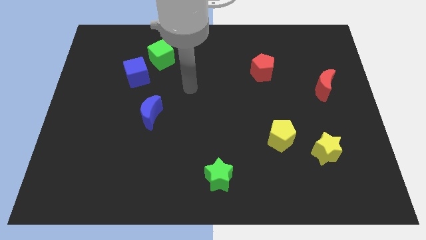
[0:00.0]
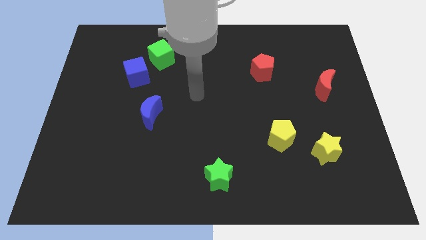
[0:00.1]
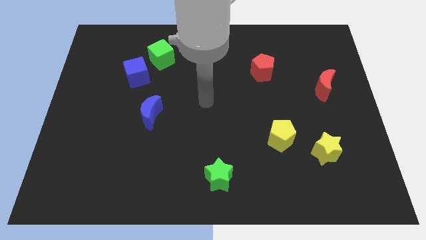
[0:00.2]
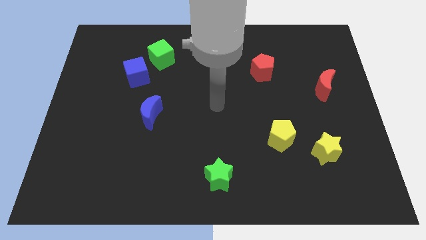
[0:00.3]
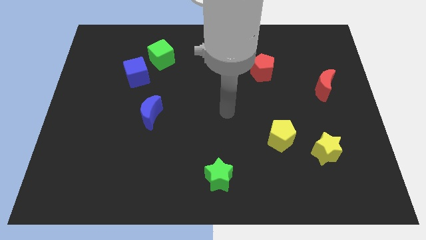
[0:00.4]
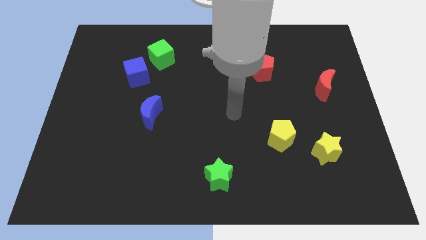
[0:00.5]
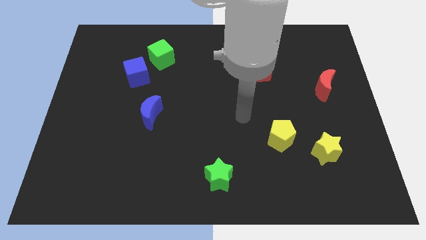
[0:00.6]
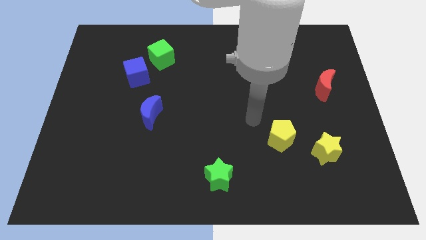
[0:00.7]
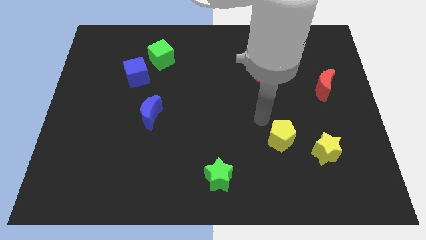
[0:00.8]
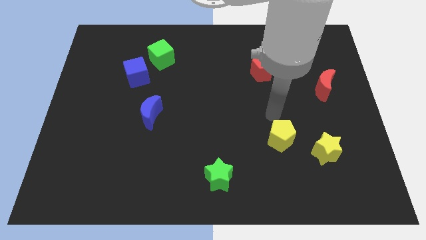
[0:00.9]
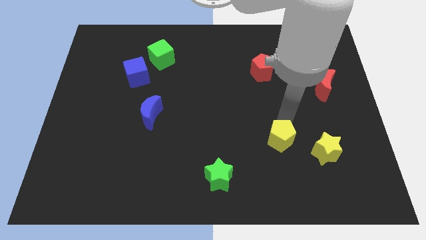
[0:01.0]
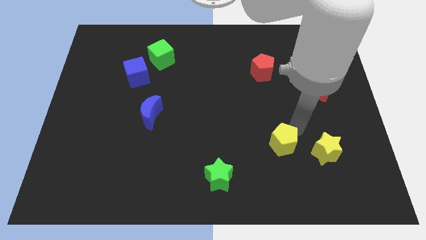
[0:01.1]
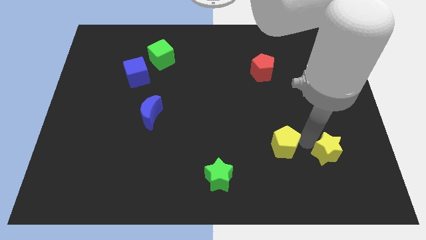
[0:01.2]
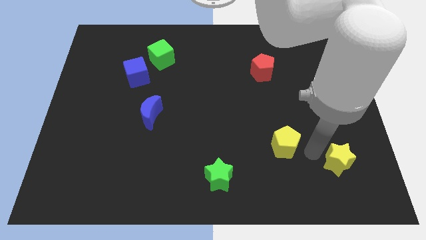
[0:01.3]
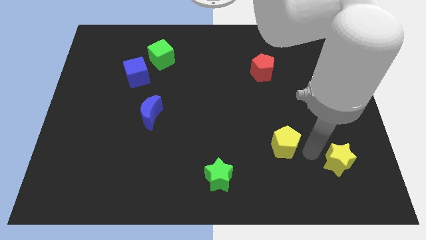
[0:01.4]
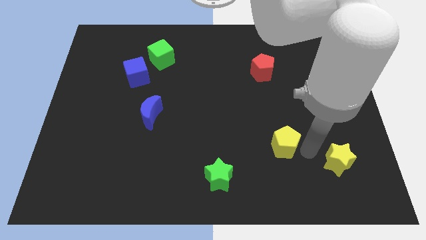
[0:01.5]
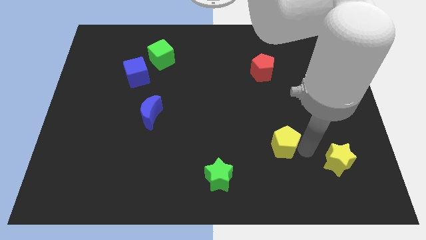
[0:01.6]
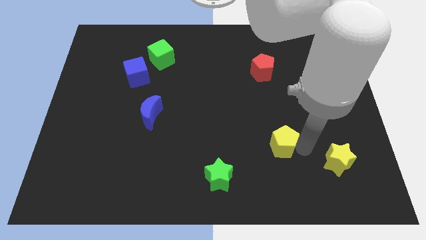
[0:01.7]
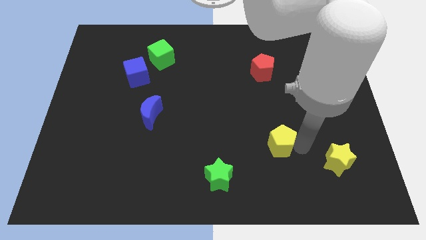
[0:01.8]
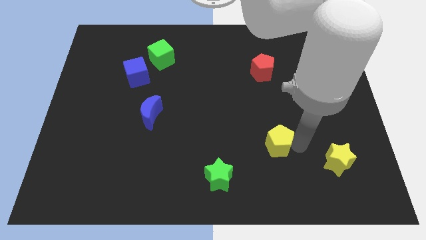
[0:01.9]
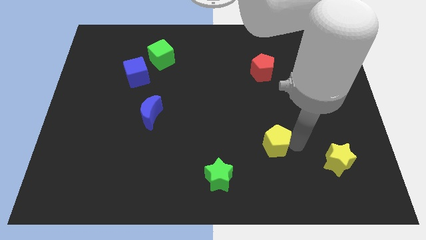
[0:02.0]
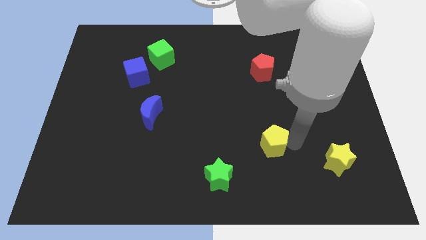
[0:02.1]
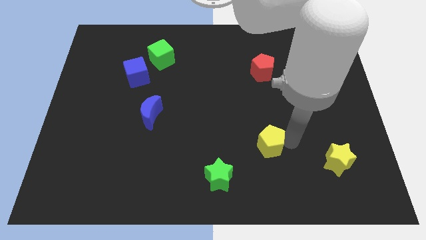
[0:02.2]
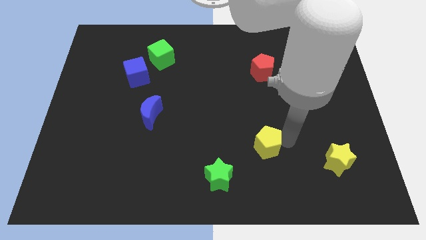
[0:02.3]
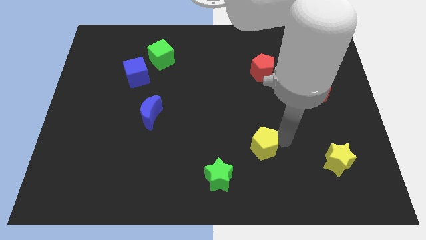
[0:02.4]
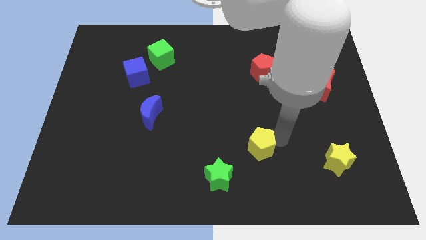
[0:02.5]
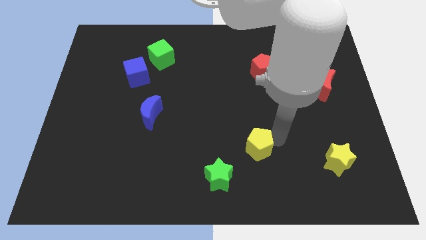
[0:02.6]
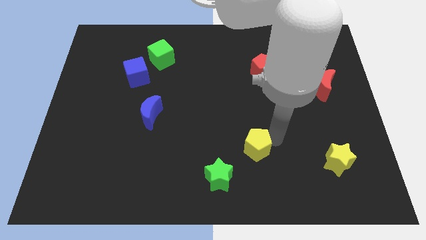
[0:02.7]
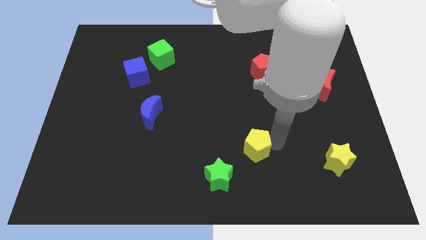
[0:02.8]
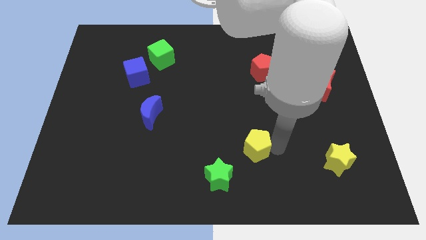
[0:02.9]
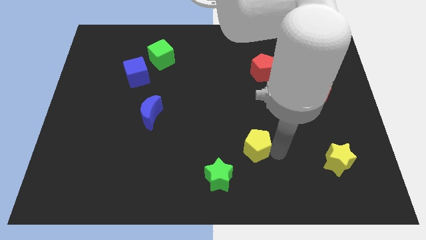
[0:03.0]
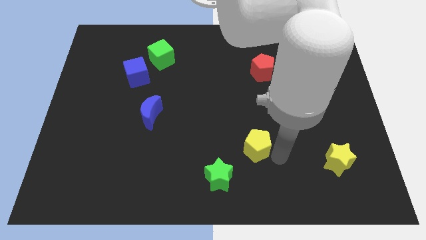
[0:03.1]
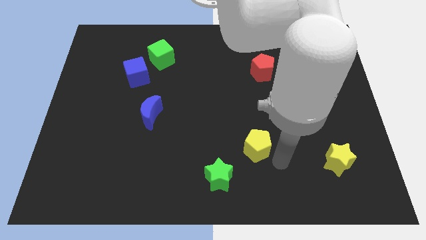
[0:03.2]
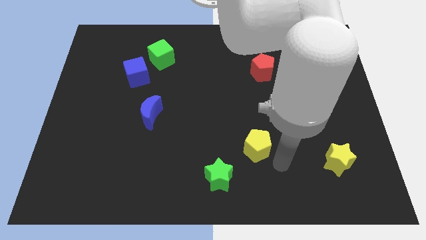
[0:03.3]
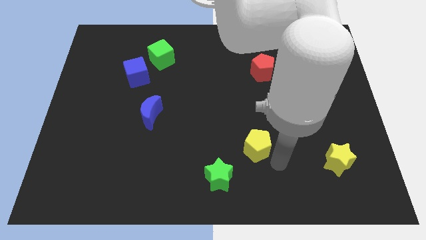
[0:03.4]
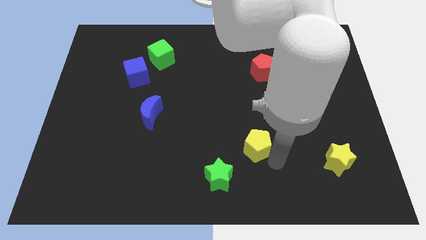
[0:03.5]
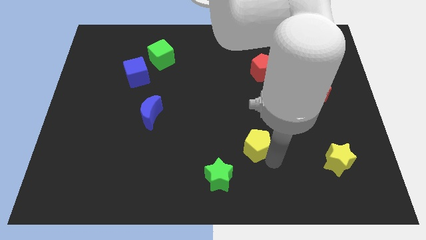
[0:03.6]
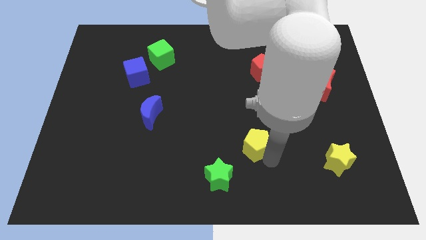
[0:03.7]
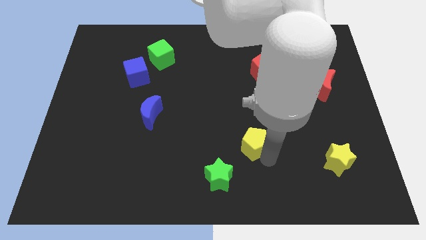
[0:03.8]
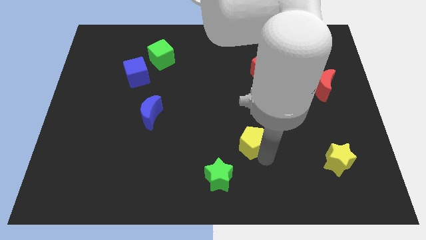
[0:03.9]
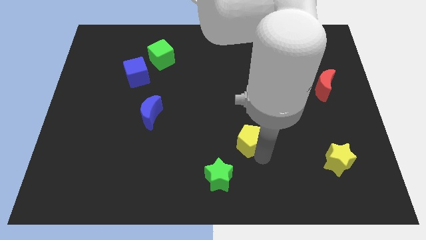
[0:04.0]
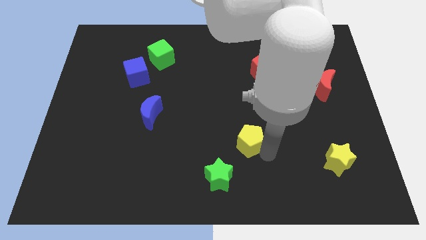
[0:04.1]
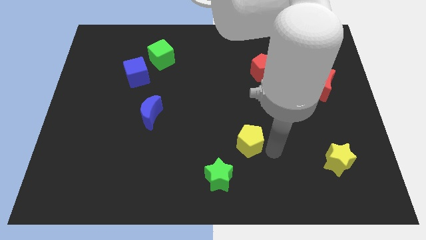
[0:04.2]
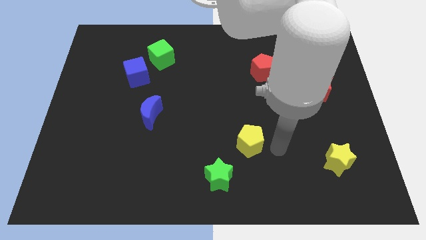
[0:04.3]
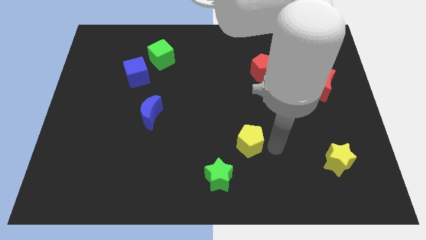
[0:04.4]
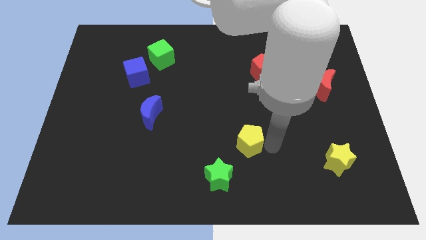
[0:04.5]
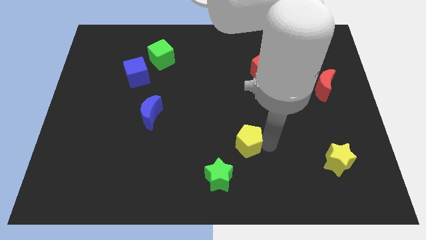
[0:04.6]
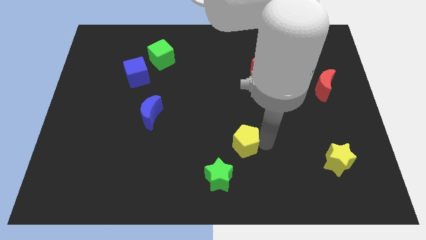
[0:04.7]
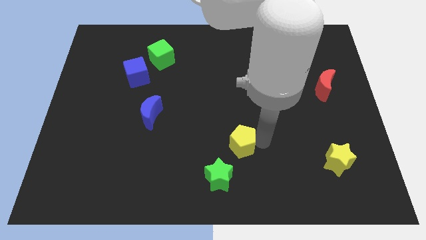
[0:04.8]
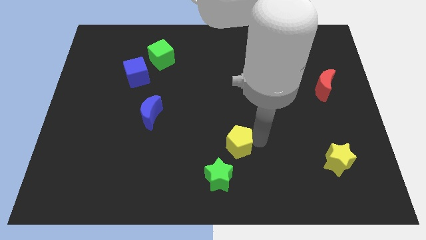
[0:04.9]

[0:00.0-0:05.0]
move the yellow pentagon to the top of the green star

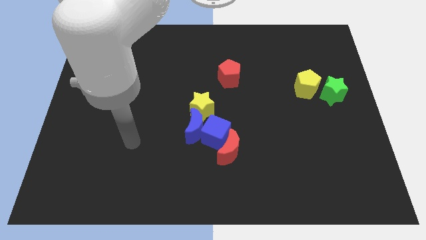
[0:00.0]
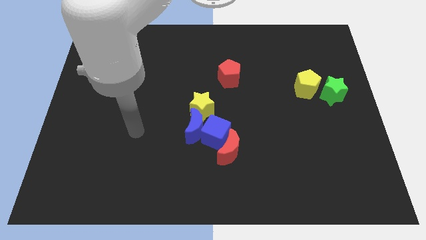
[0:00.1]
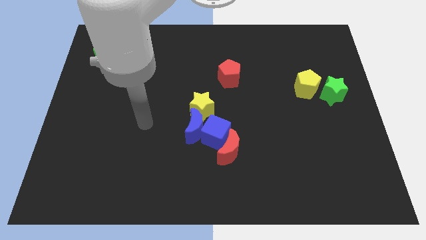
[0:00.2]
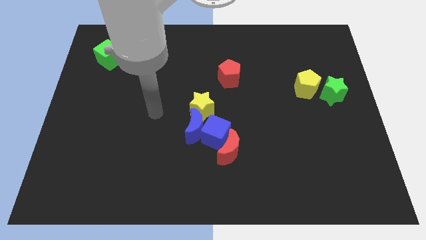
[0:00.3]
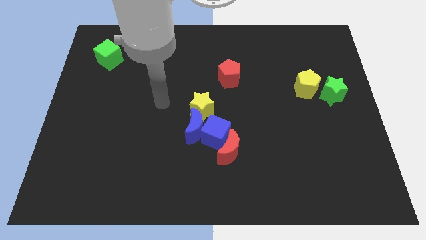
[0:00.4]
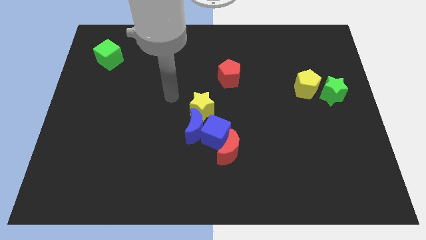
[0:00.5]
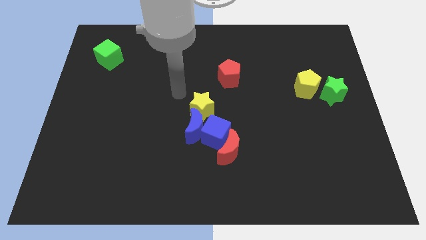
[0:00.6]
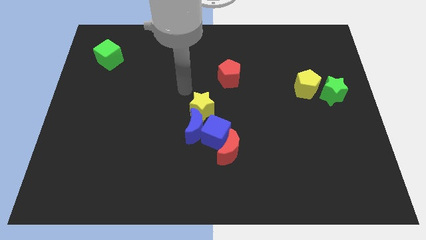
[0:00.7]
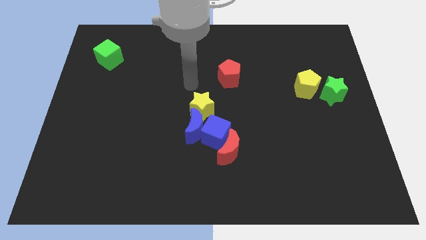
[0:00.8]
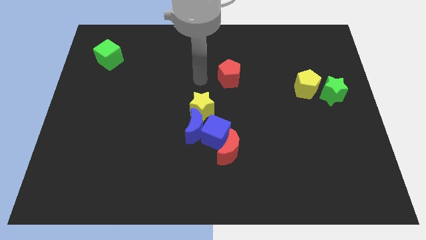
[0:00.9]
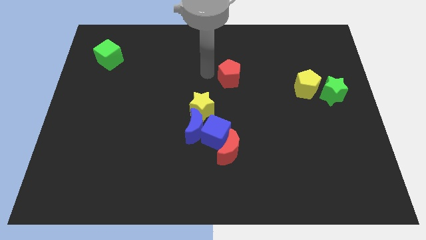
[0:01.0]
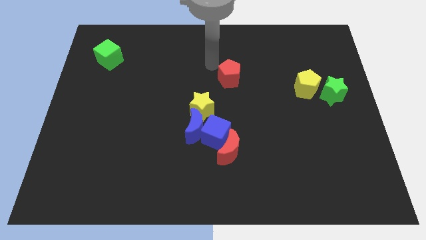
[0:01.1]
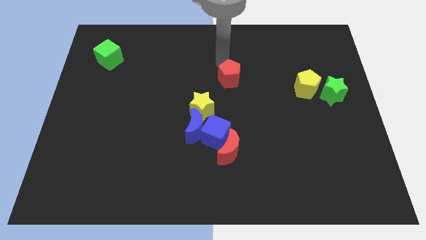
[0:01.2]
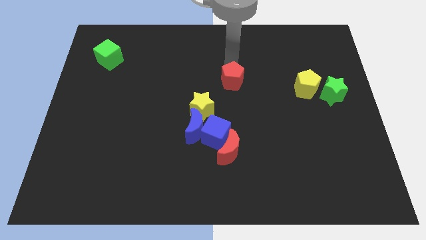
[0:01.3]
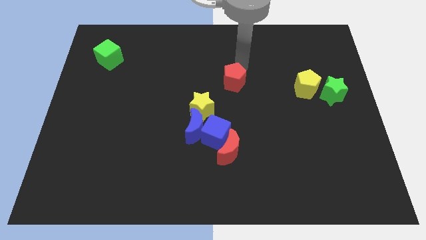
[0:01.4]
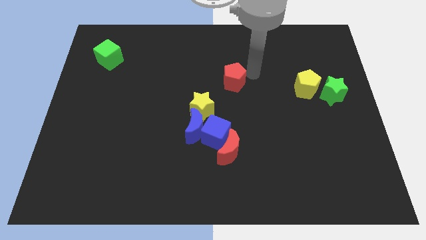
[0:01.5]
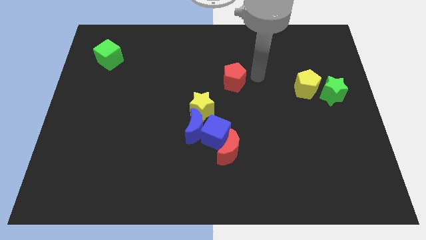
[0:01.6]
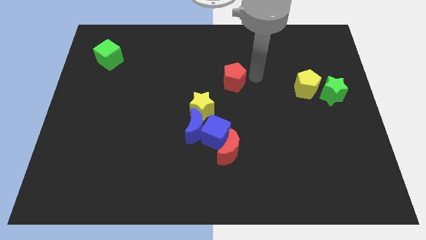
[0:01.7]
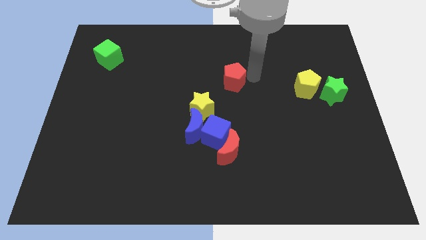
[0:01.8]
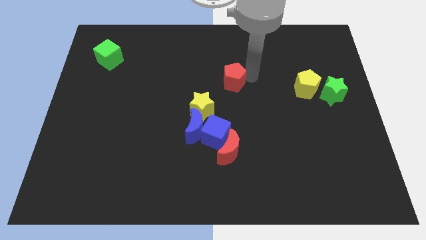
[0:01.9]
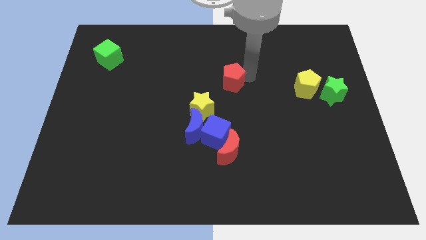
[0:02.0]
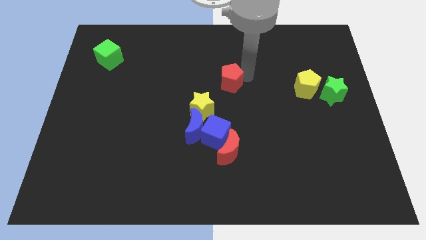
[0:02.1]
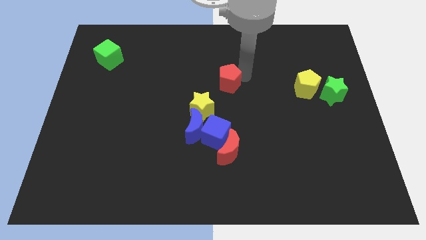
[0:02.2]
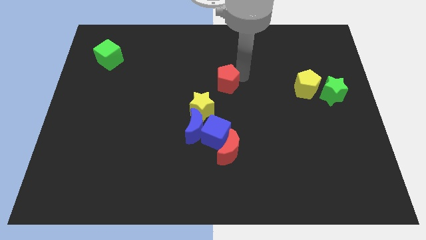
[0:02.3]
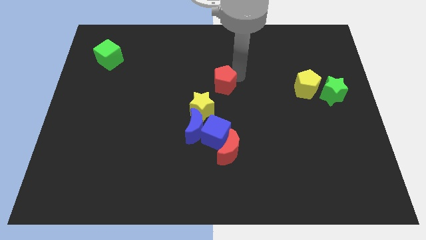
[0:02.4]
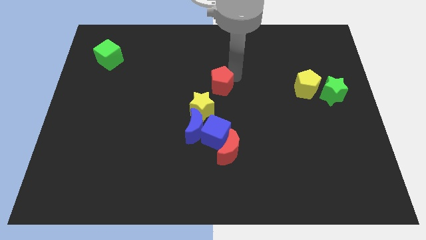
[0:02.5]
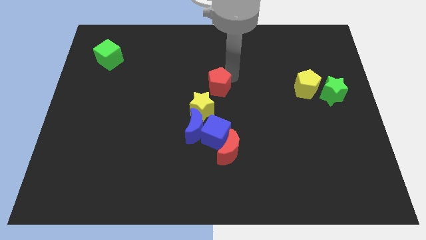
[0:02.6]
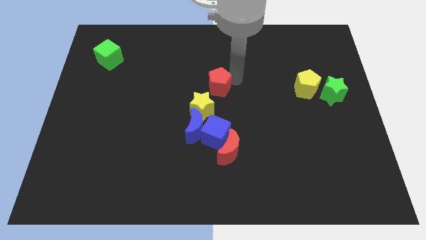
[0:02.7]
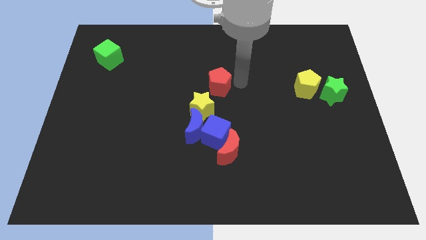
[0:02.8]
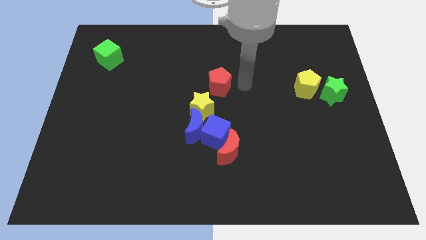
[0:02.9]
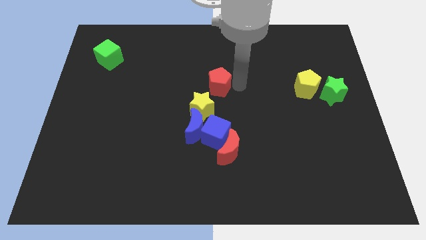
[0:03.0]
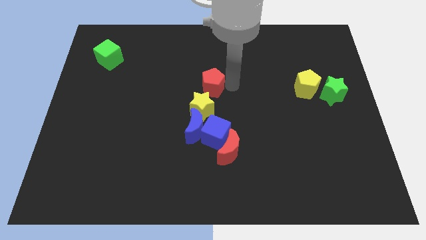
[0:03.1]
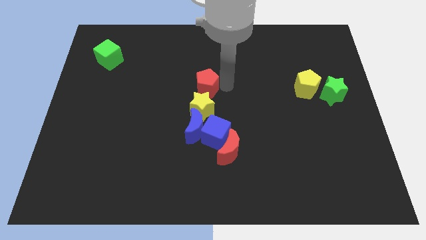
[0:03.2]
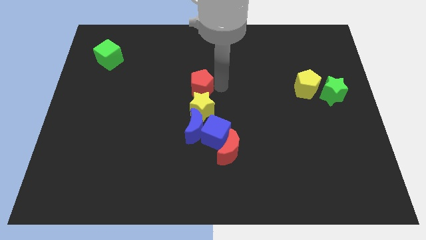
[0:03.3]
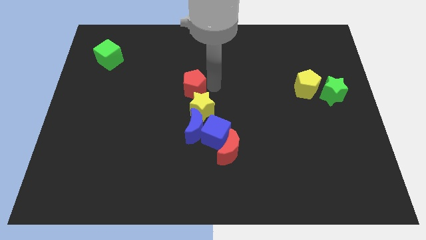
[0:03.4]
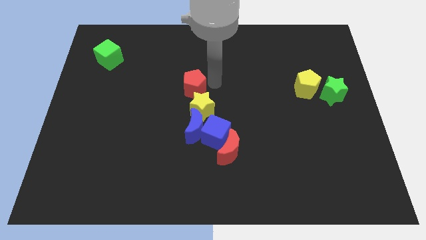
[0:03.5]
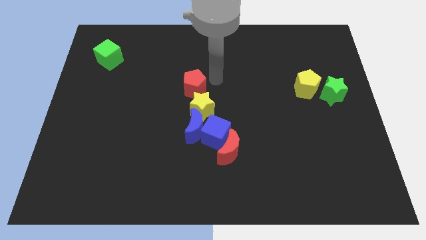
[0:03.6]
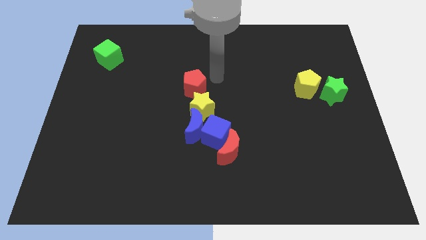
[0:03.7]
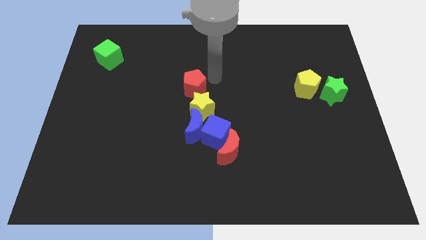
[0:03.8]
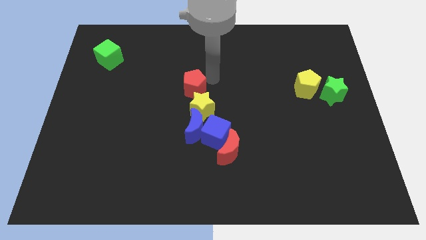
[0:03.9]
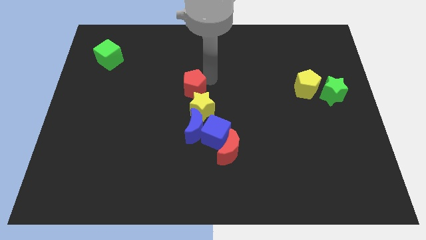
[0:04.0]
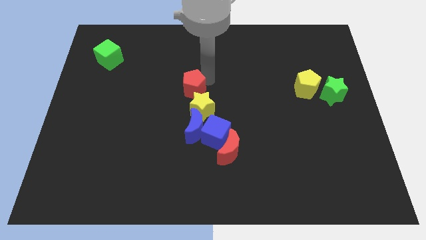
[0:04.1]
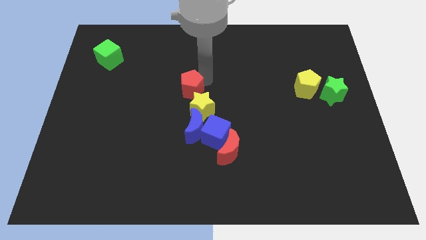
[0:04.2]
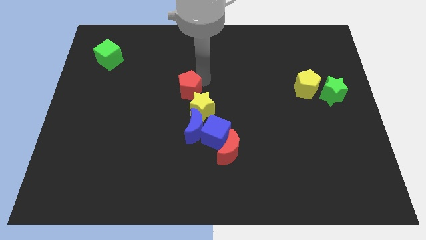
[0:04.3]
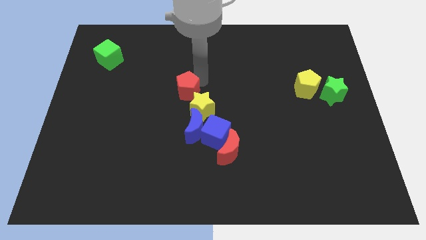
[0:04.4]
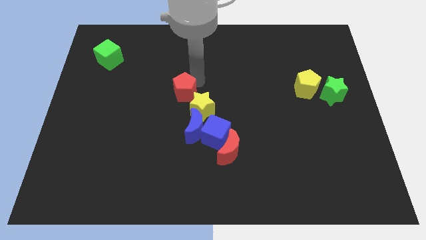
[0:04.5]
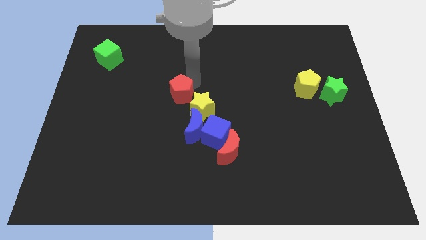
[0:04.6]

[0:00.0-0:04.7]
slide the red pentagon to the left of the yellow star
